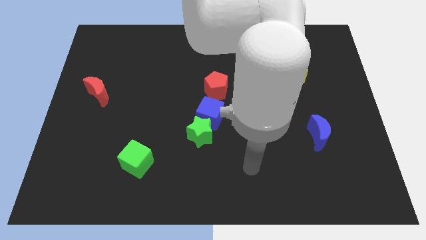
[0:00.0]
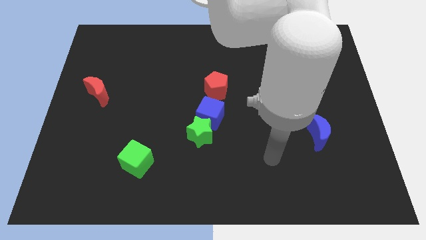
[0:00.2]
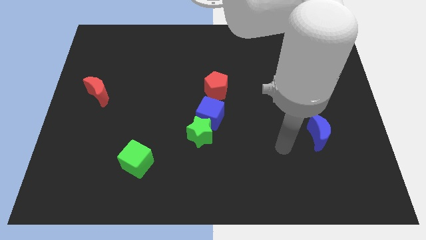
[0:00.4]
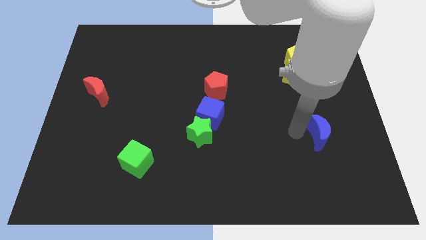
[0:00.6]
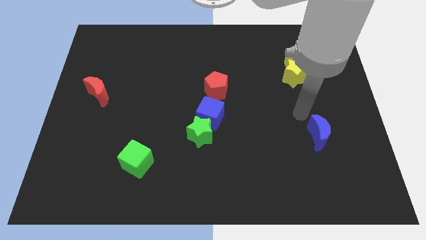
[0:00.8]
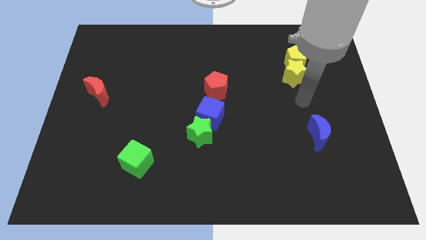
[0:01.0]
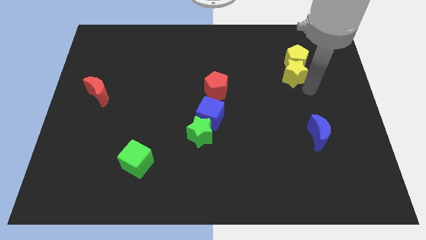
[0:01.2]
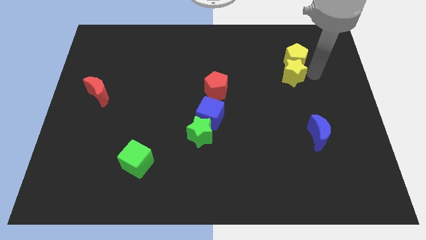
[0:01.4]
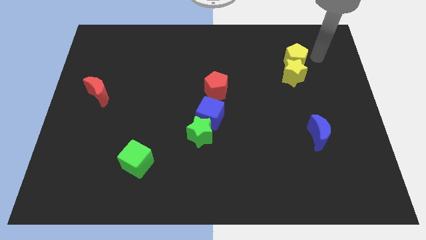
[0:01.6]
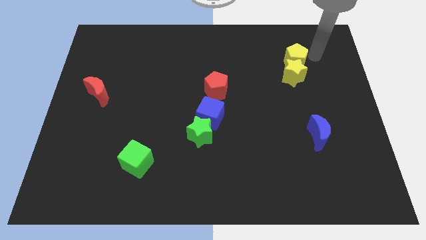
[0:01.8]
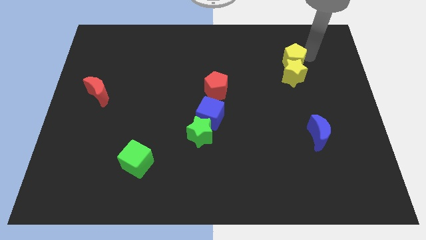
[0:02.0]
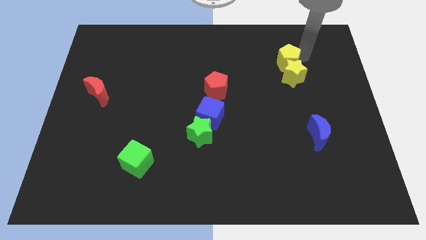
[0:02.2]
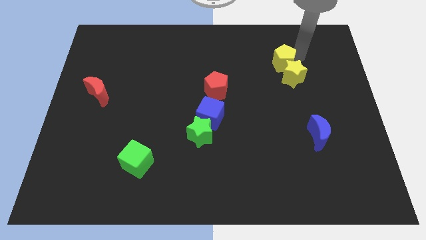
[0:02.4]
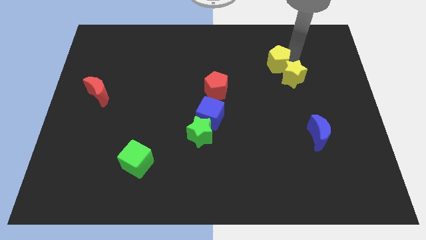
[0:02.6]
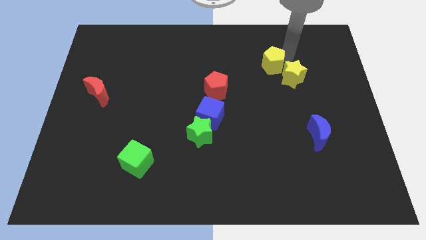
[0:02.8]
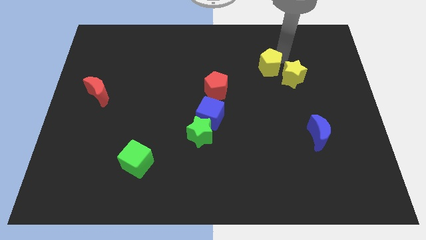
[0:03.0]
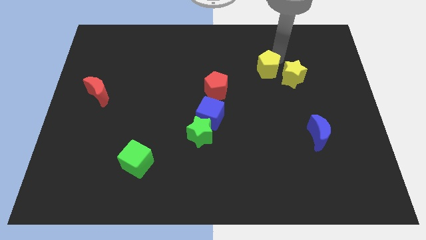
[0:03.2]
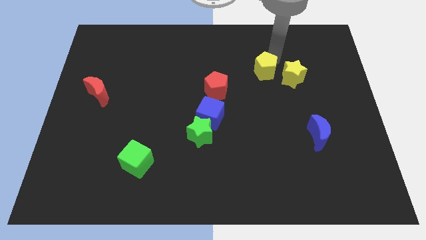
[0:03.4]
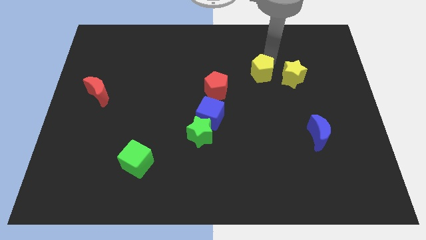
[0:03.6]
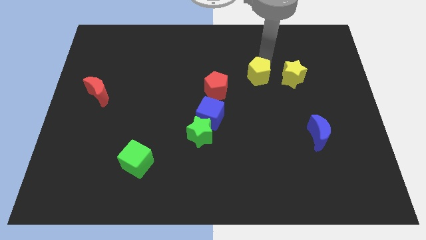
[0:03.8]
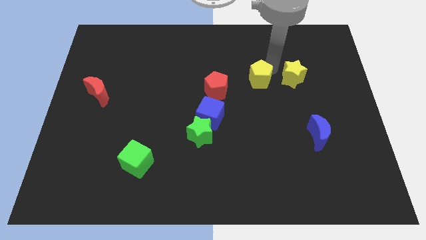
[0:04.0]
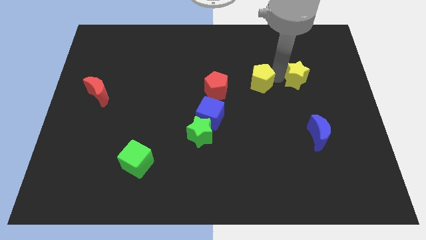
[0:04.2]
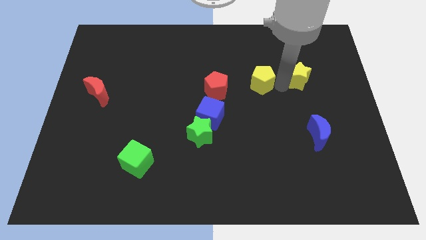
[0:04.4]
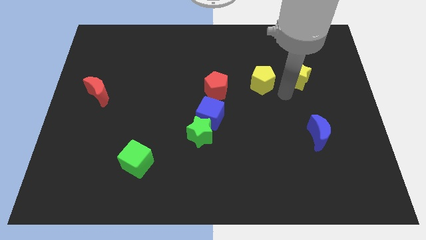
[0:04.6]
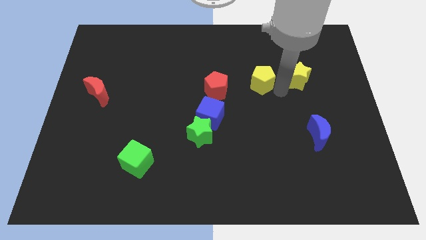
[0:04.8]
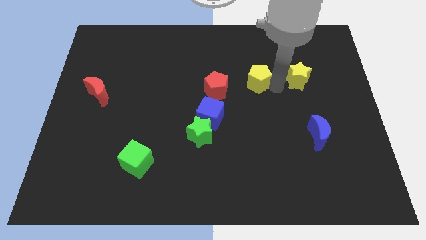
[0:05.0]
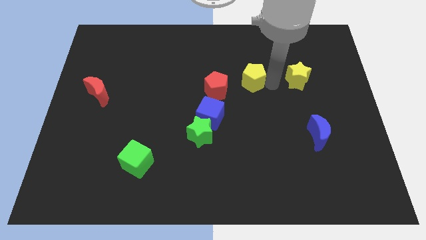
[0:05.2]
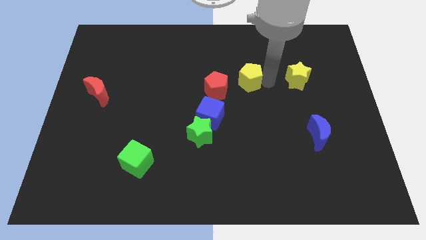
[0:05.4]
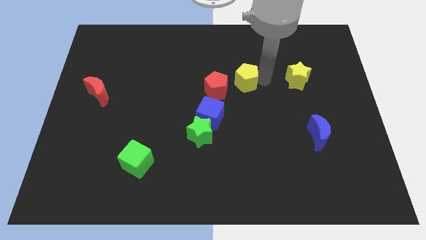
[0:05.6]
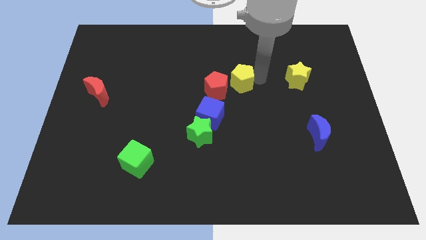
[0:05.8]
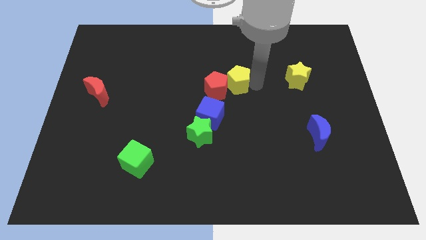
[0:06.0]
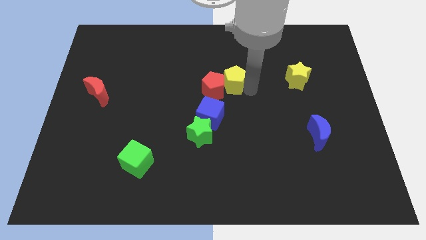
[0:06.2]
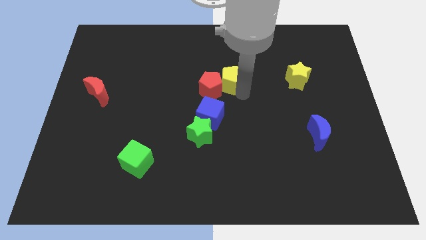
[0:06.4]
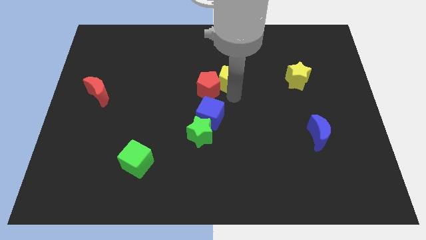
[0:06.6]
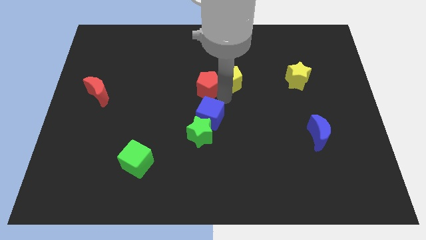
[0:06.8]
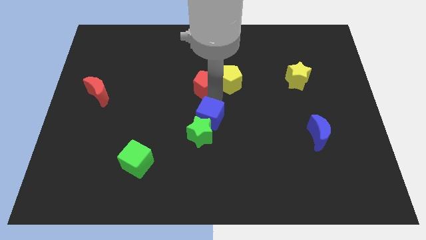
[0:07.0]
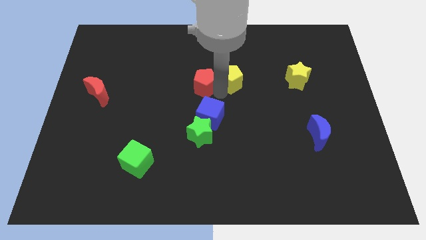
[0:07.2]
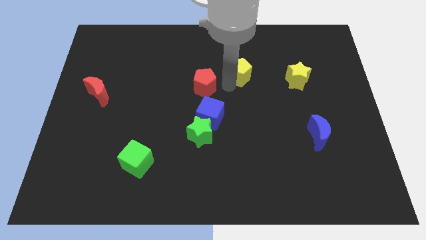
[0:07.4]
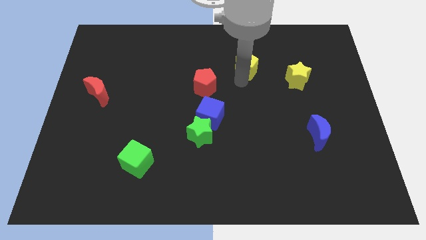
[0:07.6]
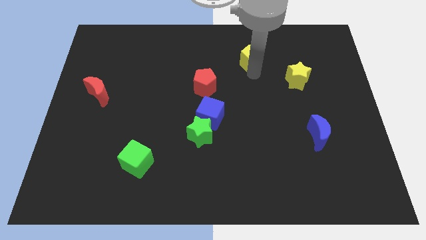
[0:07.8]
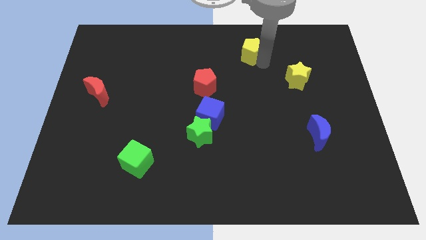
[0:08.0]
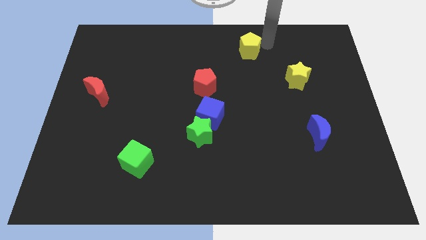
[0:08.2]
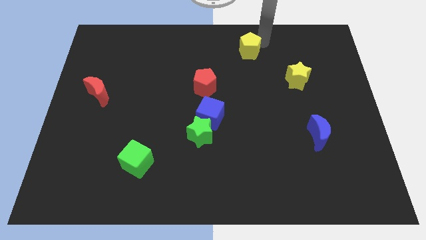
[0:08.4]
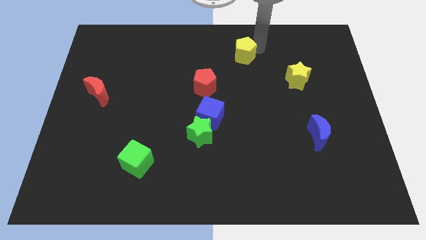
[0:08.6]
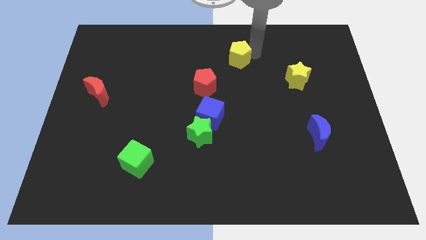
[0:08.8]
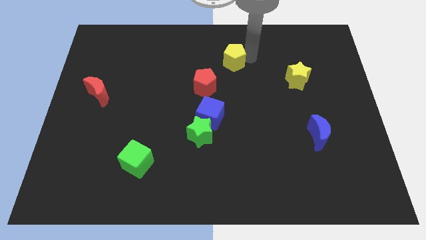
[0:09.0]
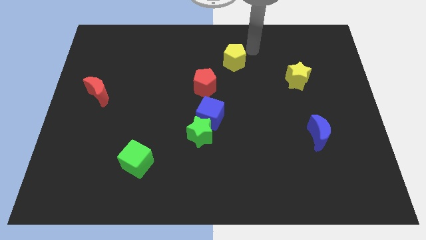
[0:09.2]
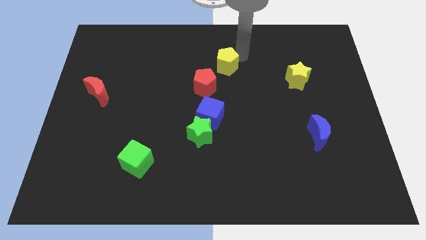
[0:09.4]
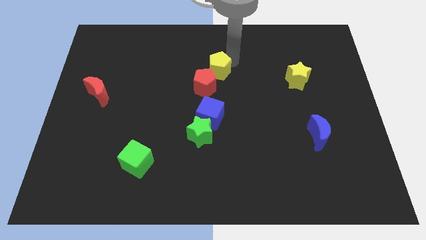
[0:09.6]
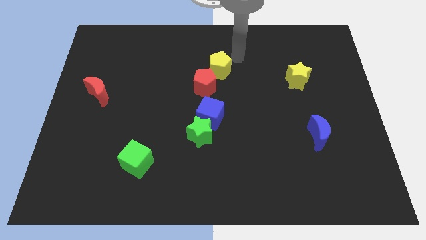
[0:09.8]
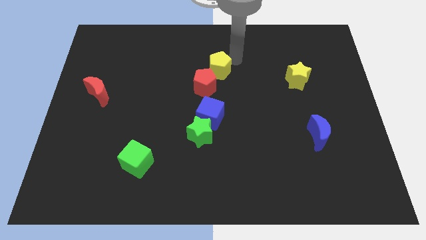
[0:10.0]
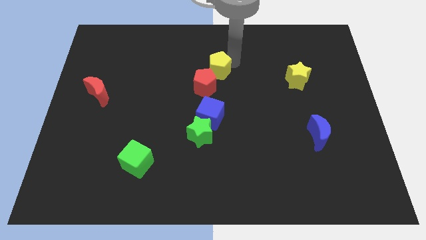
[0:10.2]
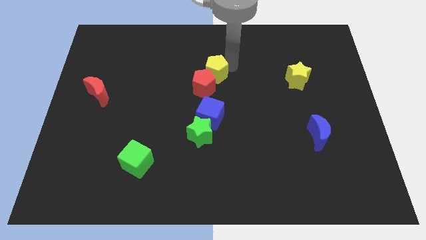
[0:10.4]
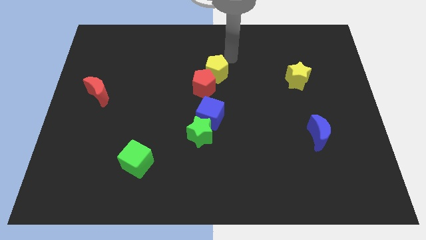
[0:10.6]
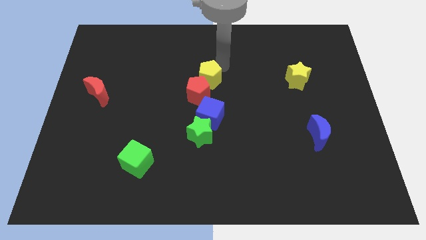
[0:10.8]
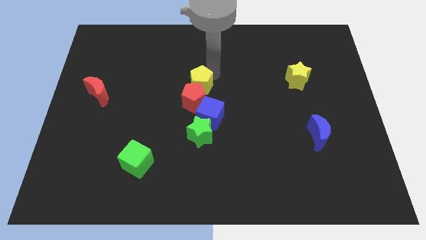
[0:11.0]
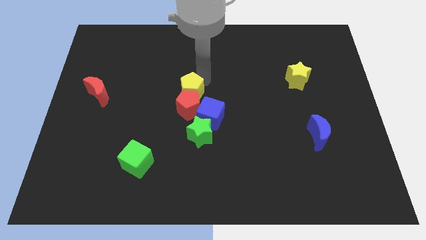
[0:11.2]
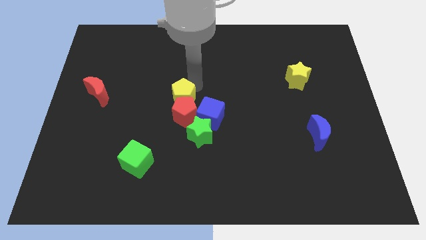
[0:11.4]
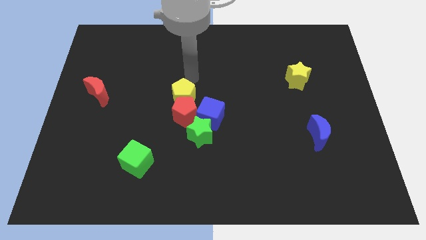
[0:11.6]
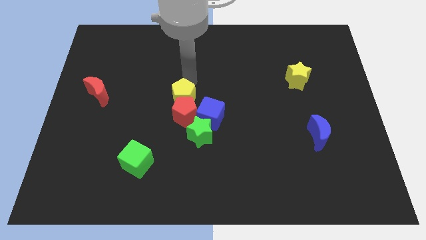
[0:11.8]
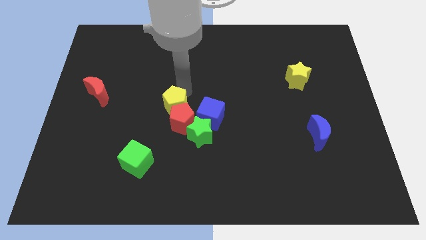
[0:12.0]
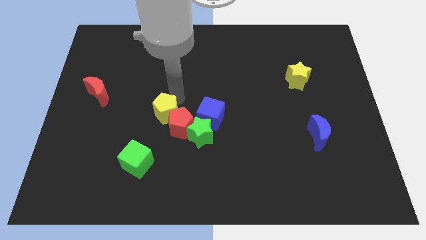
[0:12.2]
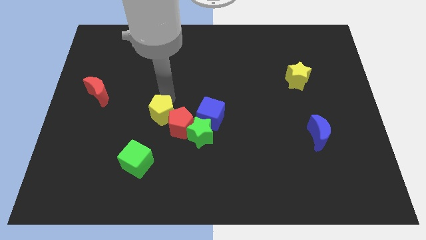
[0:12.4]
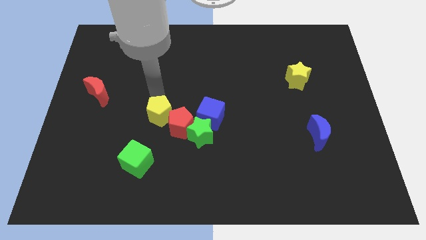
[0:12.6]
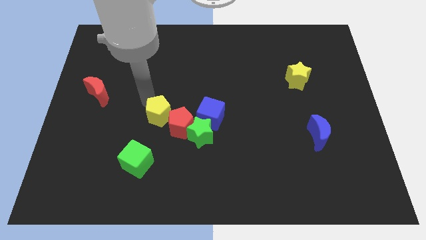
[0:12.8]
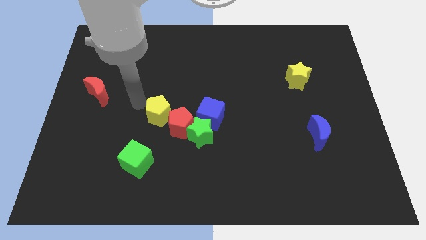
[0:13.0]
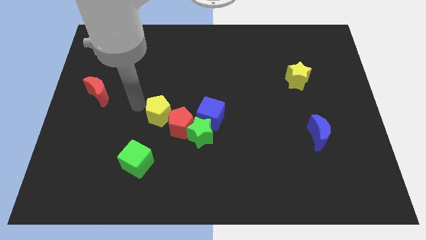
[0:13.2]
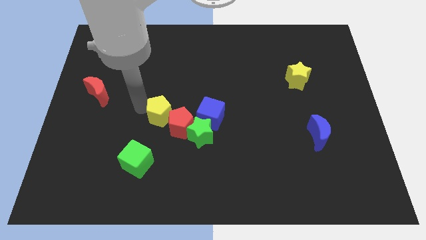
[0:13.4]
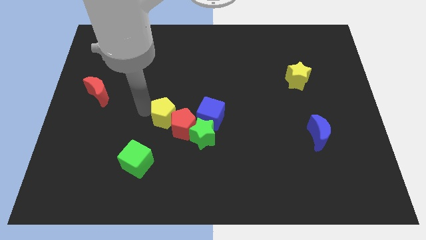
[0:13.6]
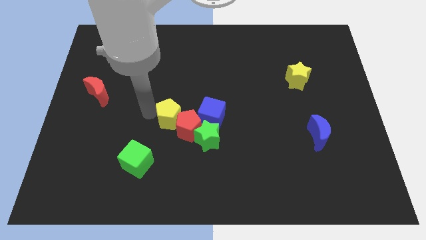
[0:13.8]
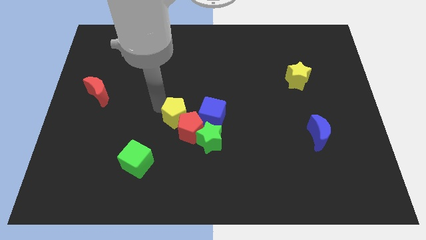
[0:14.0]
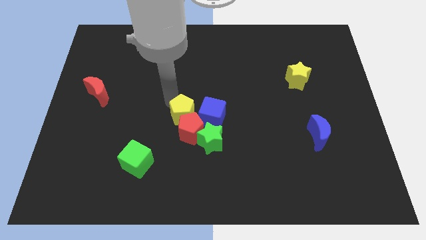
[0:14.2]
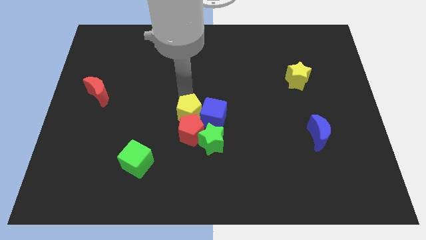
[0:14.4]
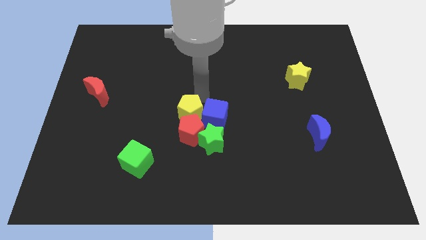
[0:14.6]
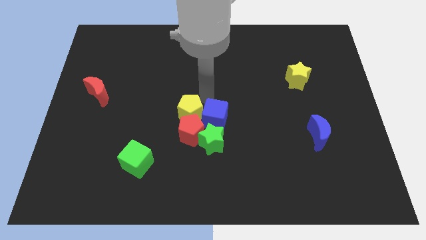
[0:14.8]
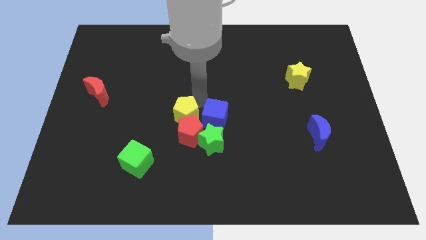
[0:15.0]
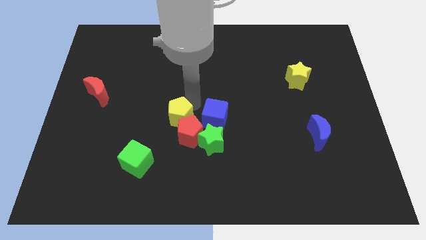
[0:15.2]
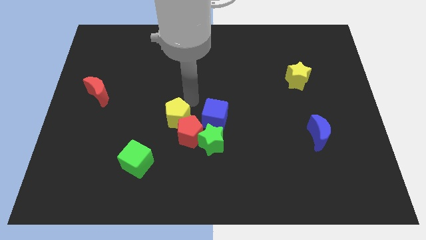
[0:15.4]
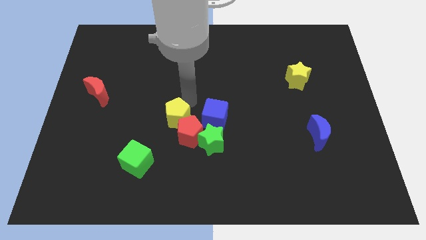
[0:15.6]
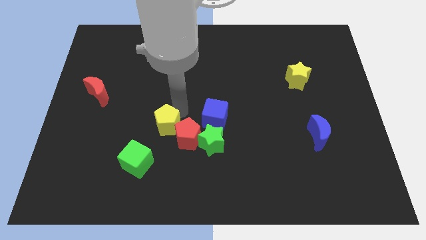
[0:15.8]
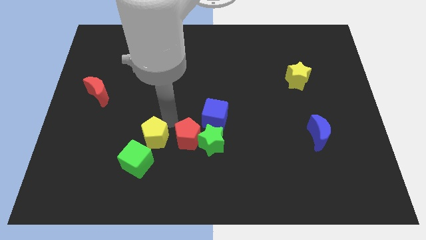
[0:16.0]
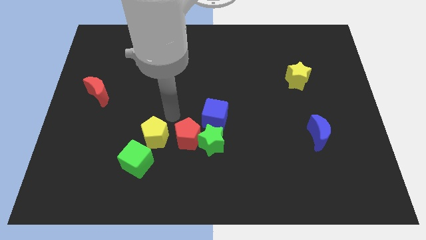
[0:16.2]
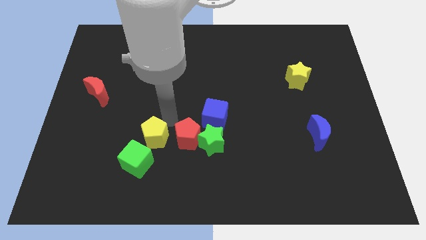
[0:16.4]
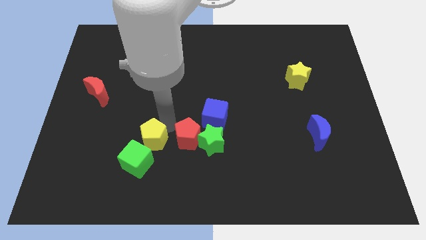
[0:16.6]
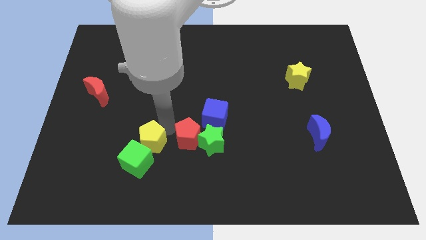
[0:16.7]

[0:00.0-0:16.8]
slide the yellow pentagon next to the green cube
